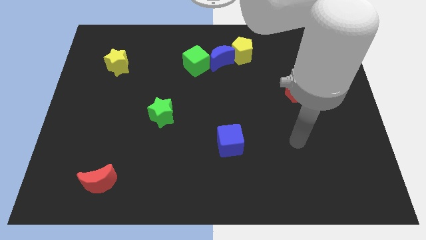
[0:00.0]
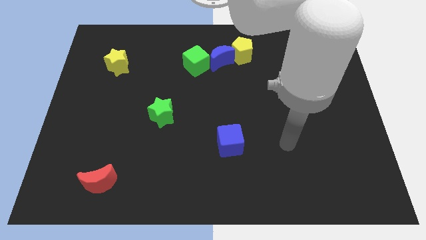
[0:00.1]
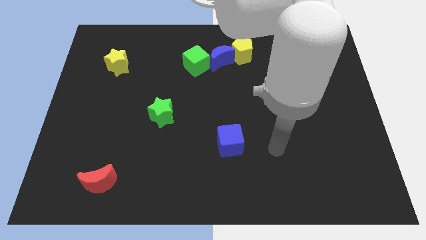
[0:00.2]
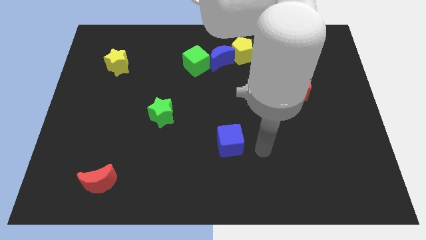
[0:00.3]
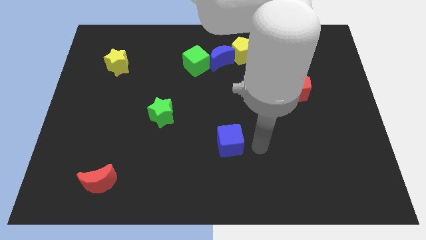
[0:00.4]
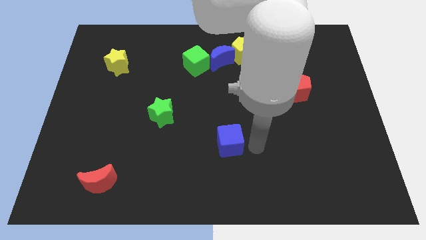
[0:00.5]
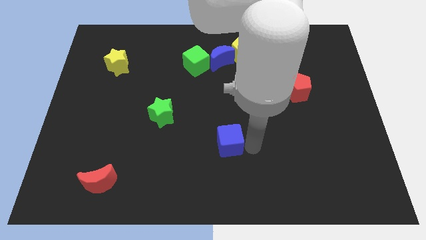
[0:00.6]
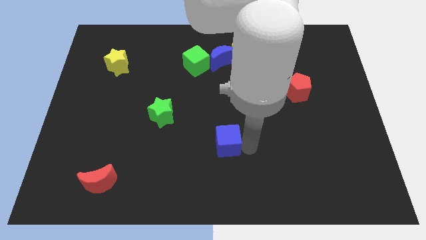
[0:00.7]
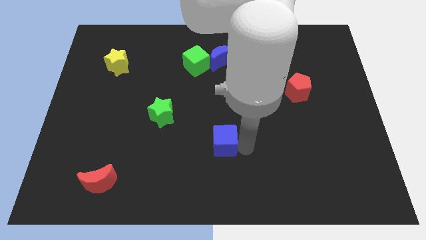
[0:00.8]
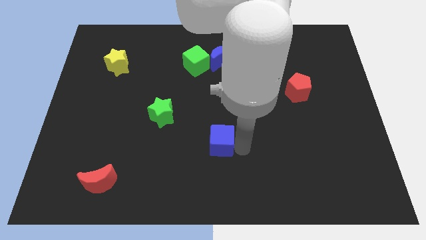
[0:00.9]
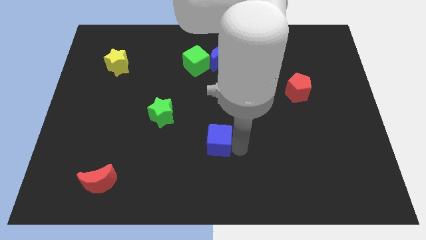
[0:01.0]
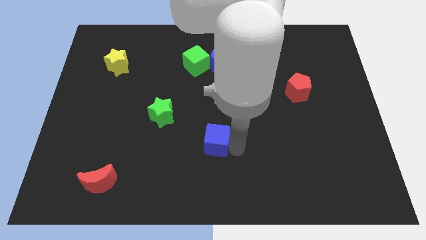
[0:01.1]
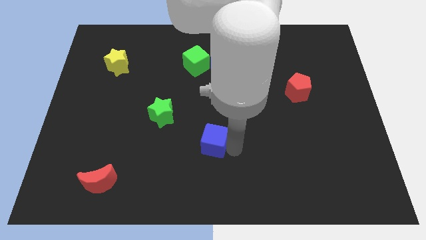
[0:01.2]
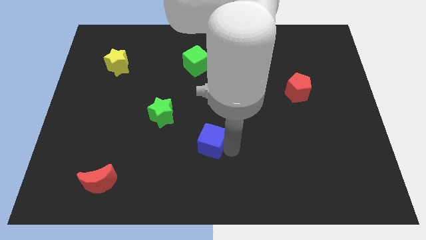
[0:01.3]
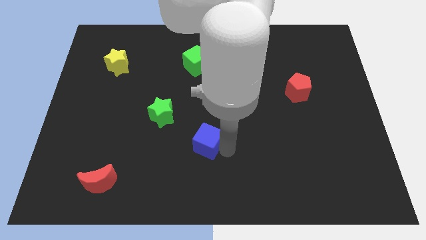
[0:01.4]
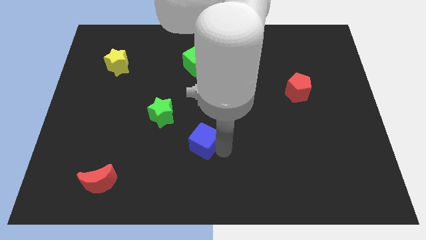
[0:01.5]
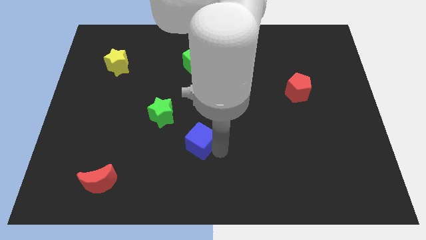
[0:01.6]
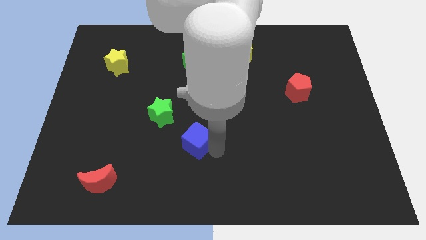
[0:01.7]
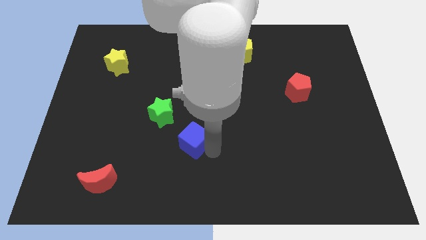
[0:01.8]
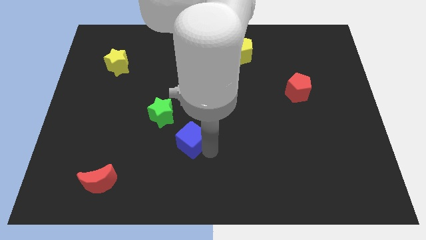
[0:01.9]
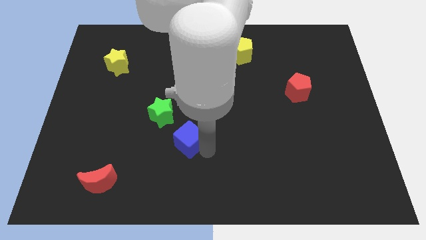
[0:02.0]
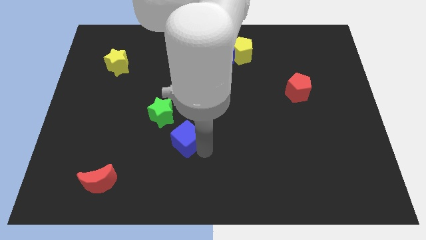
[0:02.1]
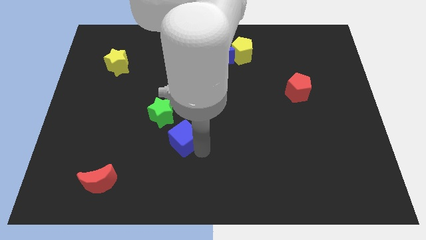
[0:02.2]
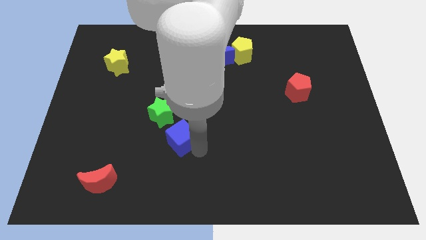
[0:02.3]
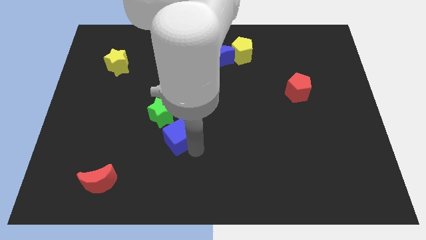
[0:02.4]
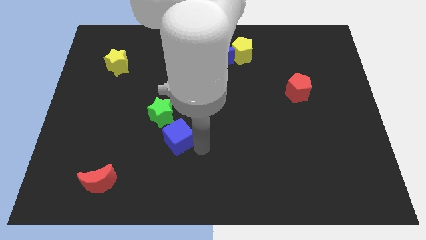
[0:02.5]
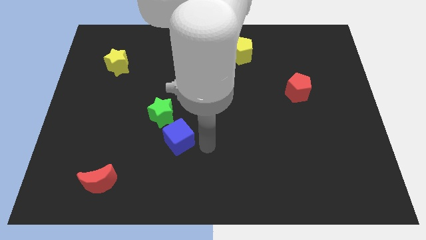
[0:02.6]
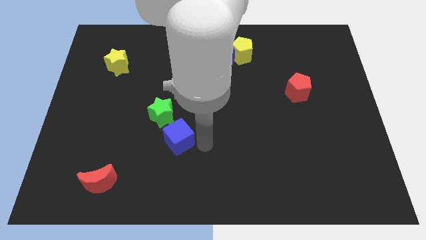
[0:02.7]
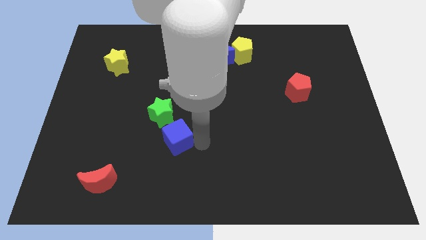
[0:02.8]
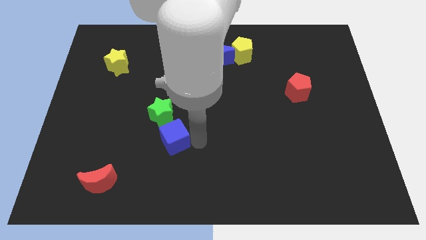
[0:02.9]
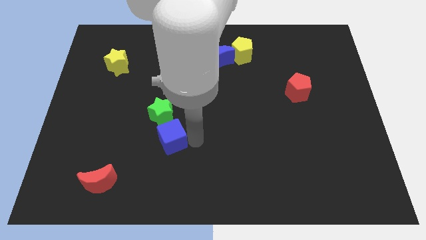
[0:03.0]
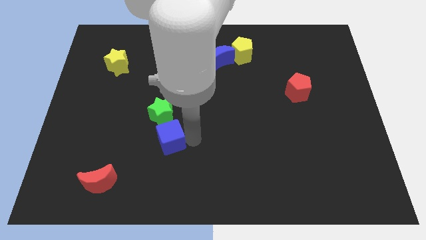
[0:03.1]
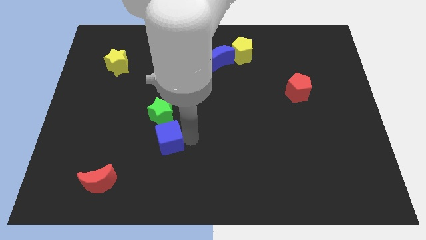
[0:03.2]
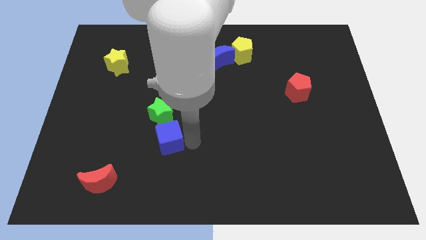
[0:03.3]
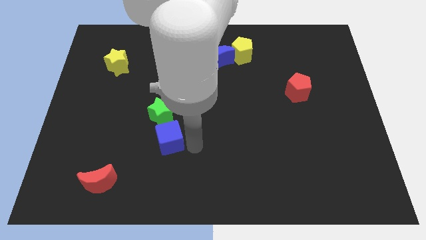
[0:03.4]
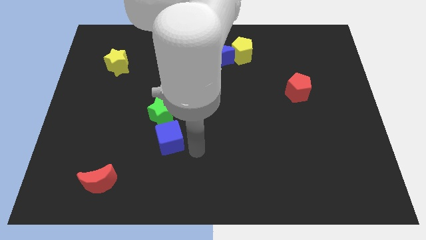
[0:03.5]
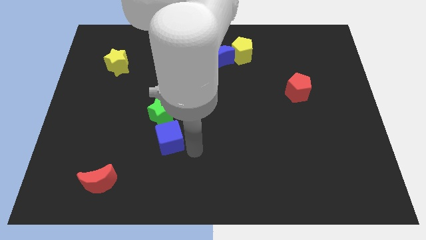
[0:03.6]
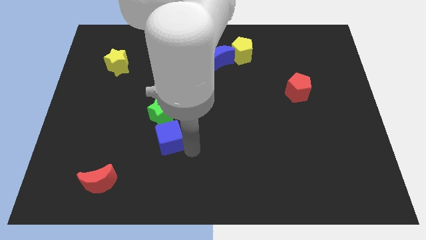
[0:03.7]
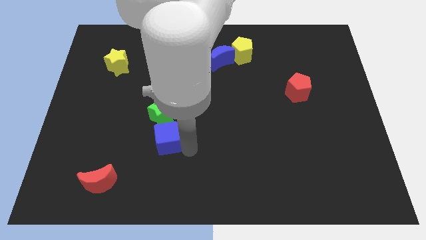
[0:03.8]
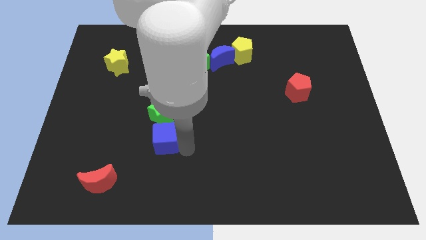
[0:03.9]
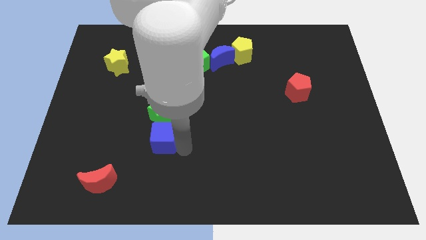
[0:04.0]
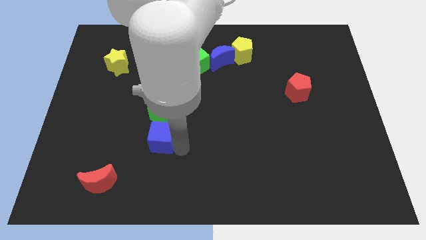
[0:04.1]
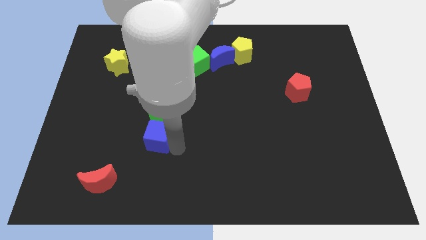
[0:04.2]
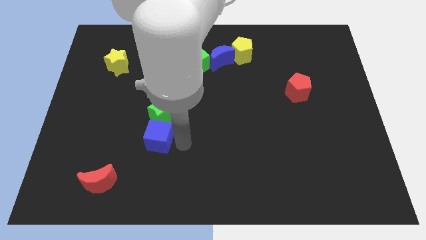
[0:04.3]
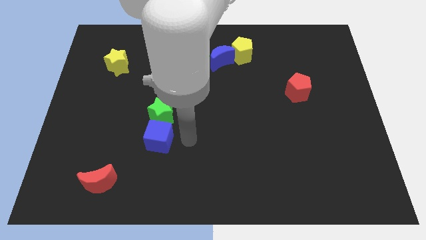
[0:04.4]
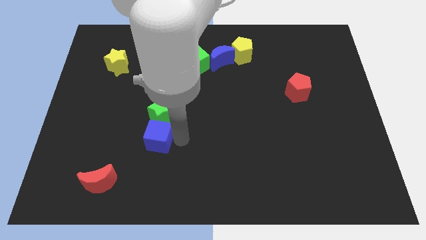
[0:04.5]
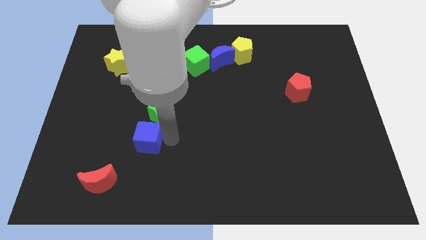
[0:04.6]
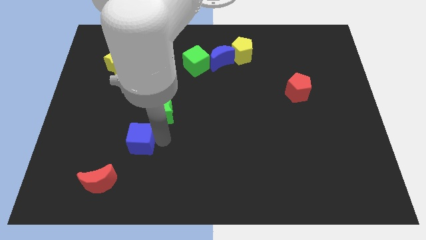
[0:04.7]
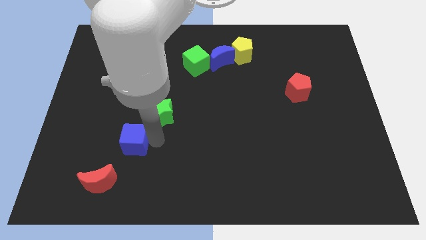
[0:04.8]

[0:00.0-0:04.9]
push the blue cube to the left

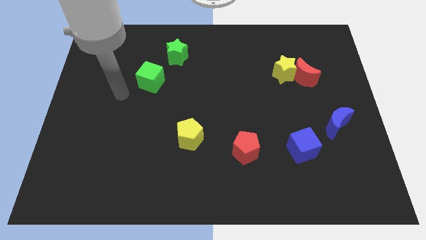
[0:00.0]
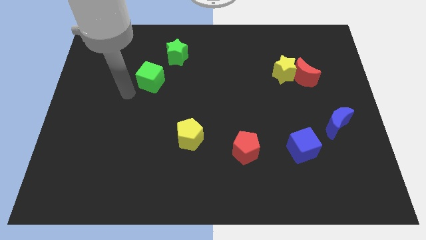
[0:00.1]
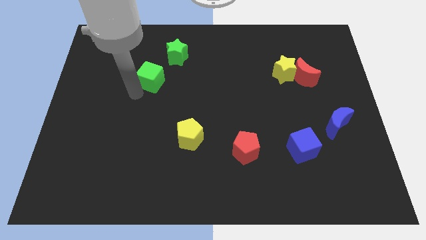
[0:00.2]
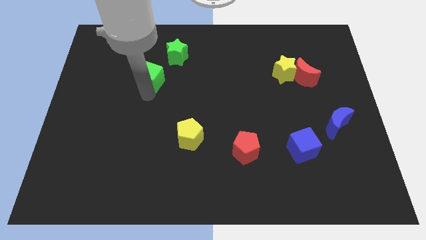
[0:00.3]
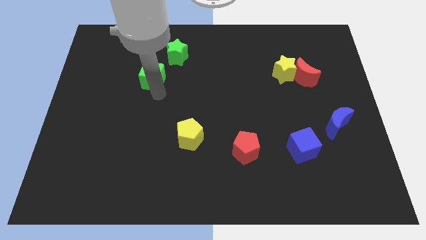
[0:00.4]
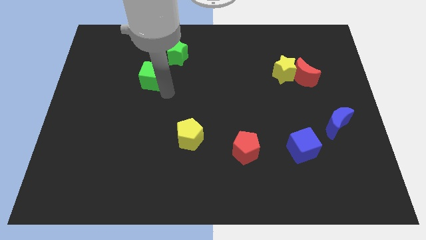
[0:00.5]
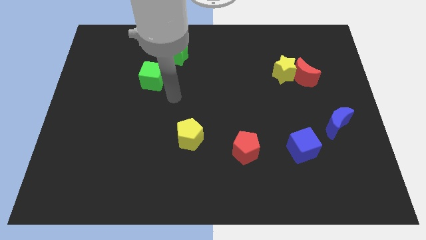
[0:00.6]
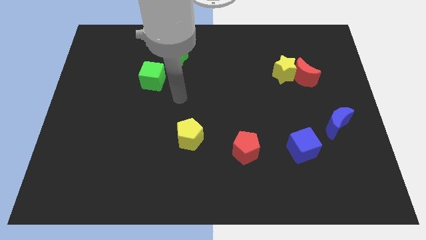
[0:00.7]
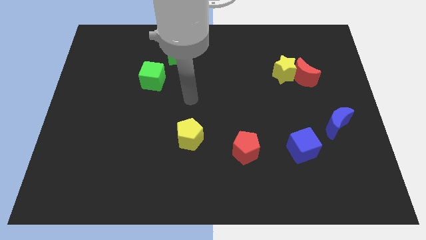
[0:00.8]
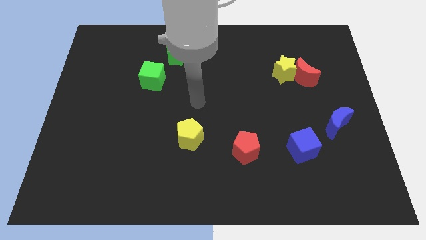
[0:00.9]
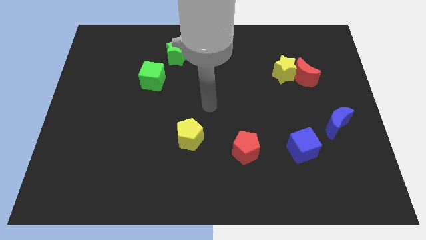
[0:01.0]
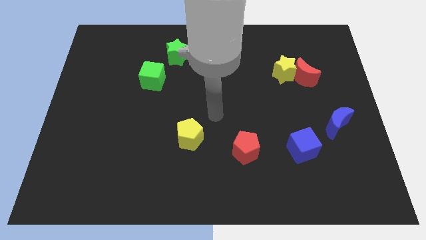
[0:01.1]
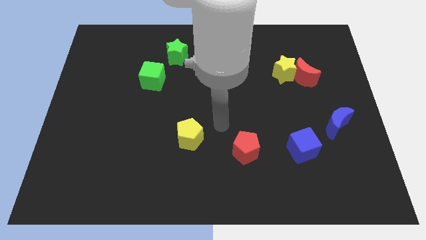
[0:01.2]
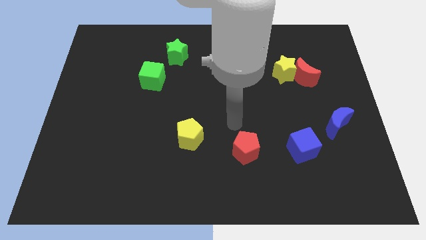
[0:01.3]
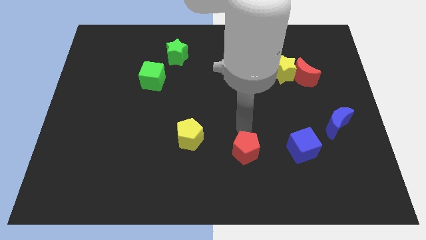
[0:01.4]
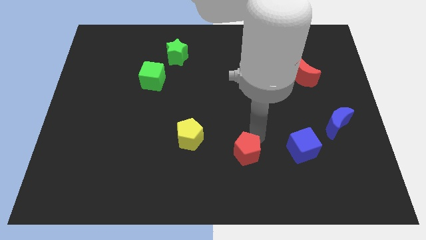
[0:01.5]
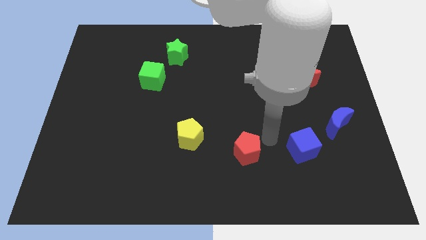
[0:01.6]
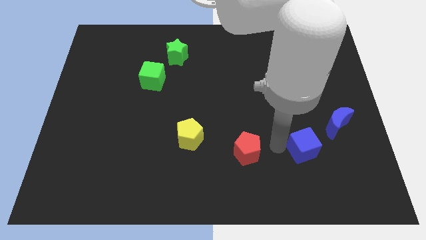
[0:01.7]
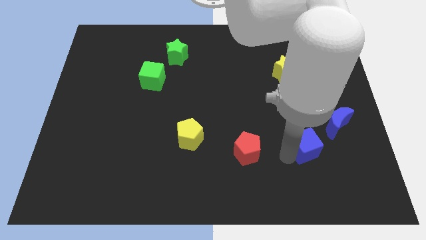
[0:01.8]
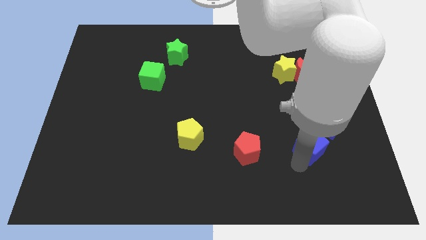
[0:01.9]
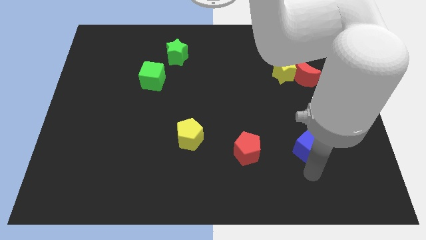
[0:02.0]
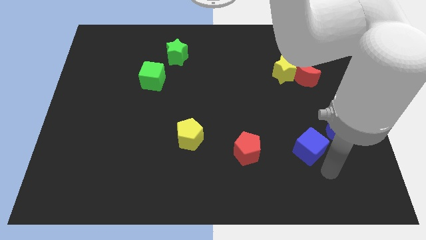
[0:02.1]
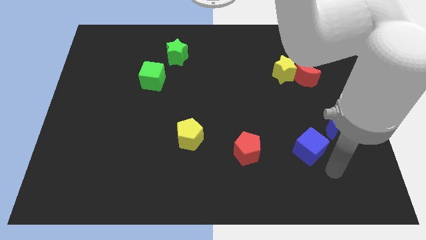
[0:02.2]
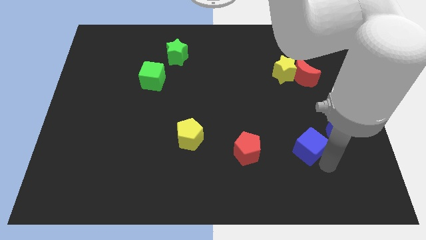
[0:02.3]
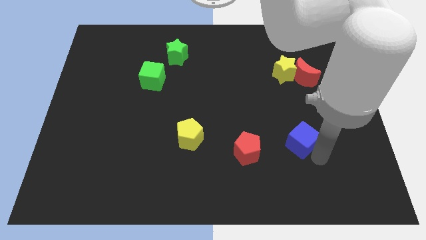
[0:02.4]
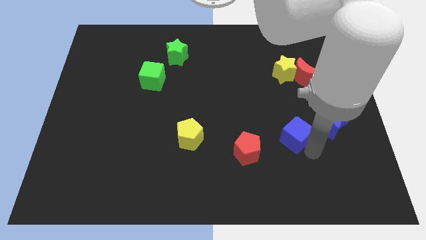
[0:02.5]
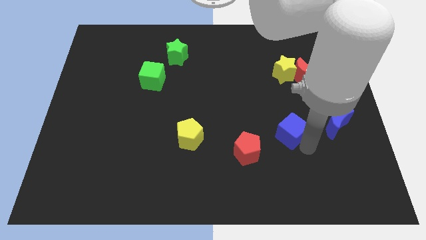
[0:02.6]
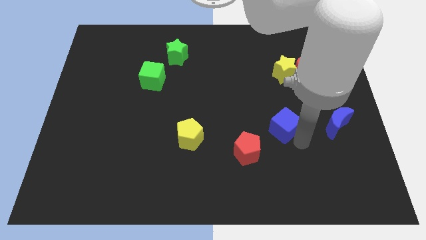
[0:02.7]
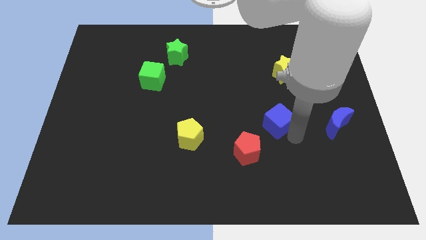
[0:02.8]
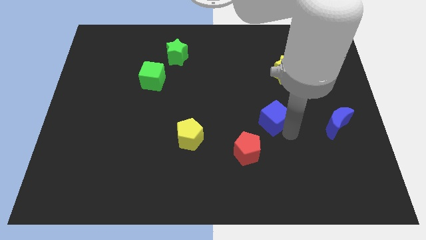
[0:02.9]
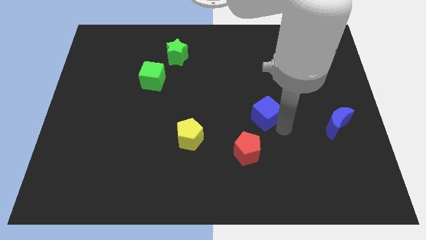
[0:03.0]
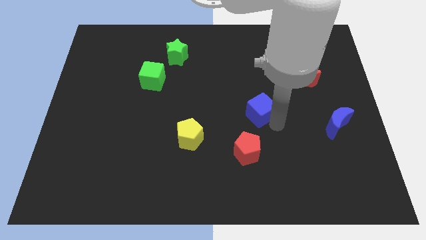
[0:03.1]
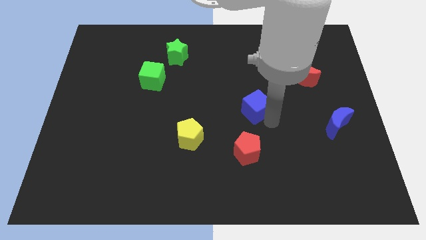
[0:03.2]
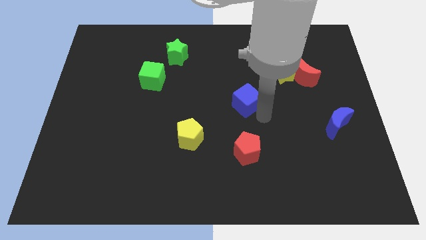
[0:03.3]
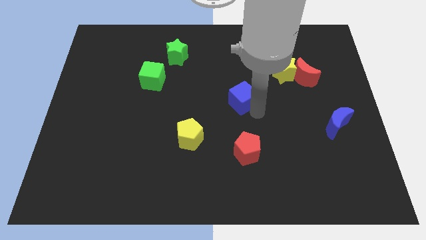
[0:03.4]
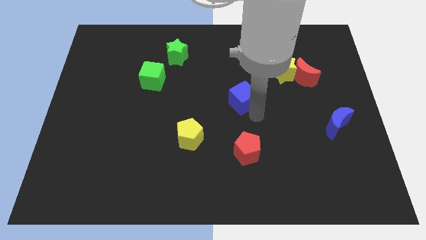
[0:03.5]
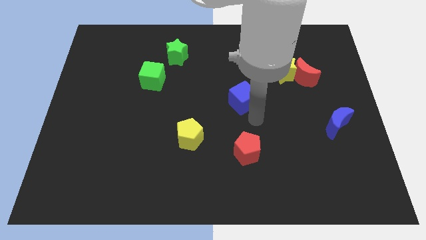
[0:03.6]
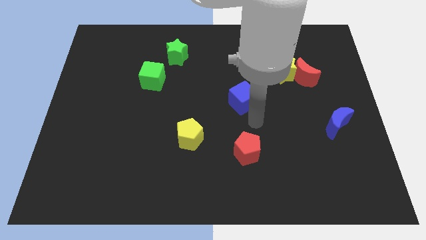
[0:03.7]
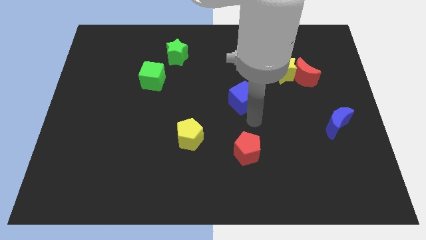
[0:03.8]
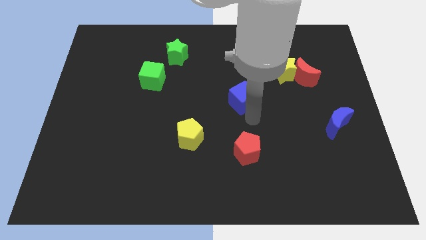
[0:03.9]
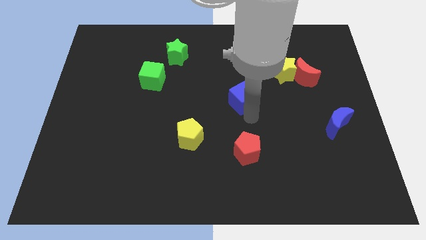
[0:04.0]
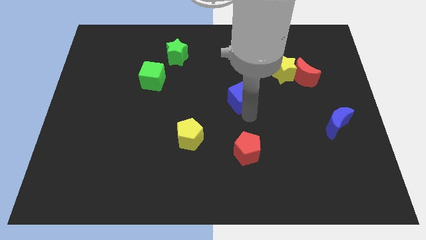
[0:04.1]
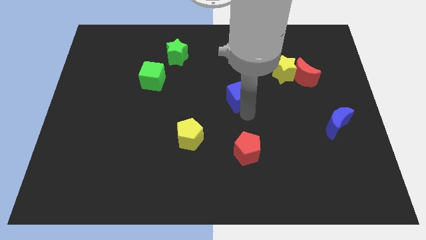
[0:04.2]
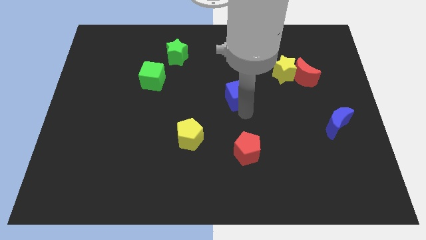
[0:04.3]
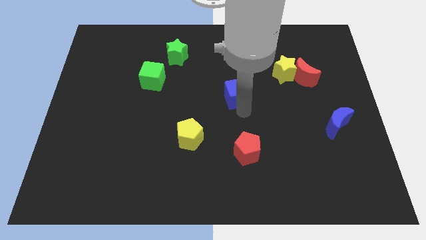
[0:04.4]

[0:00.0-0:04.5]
move the blue cube up and then to the left
